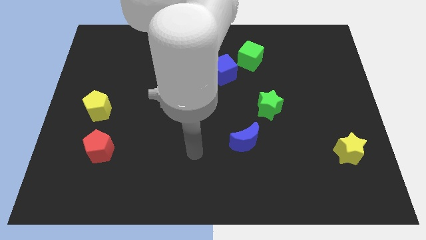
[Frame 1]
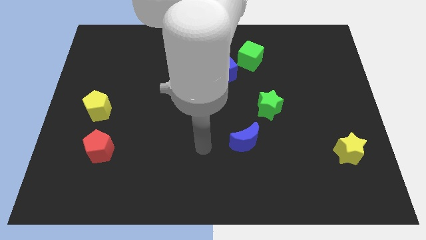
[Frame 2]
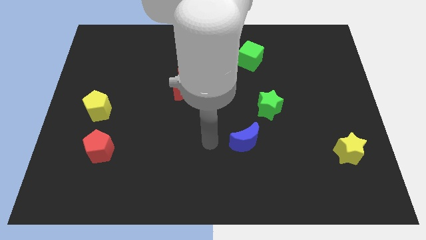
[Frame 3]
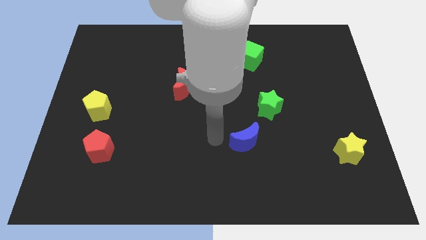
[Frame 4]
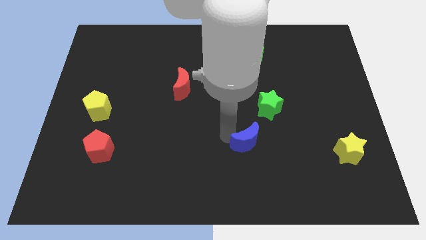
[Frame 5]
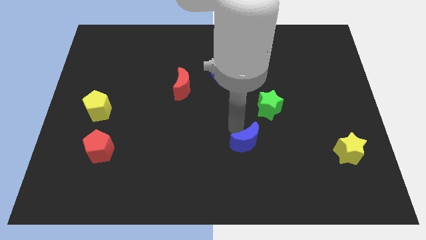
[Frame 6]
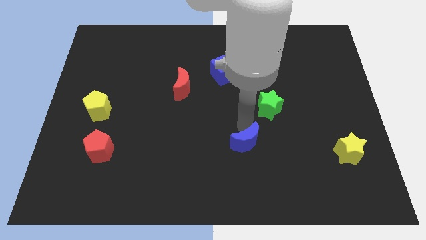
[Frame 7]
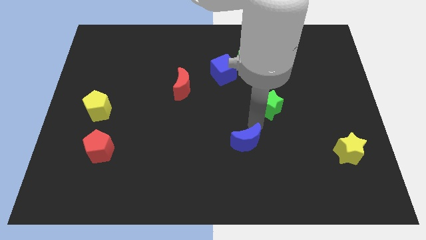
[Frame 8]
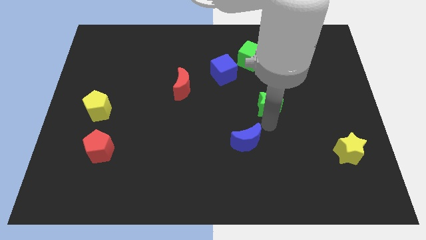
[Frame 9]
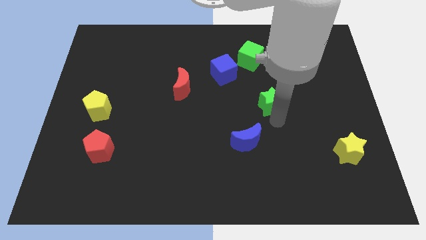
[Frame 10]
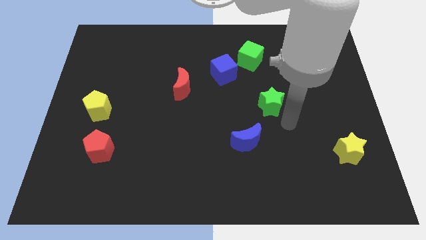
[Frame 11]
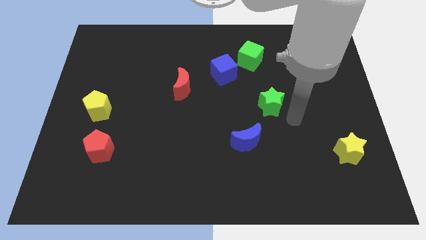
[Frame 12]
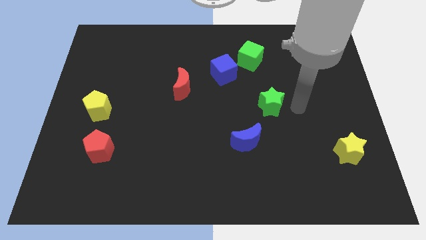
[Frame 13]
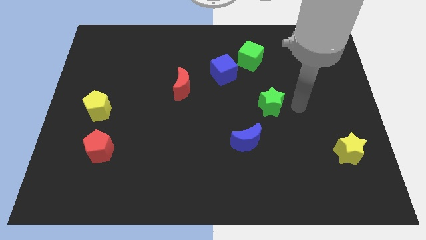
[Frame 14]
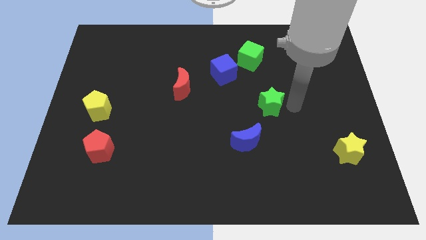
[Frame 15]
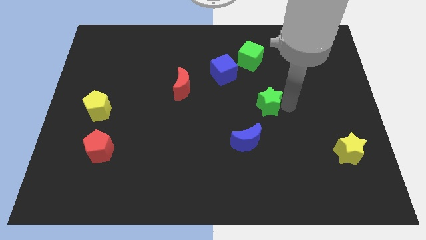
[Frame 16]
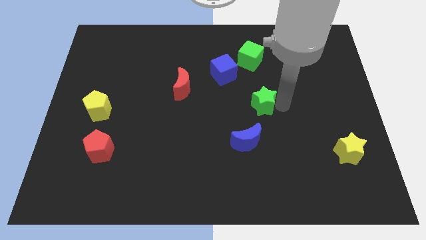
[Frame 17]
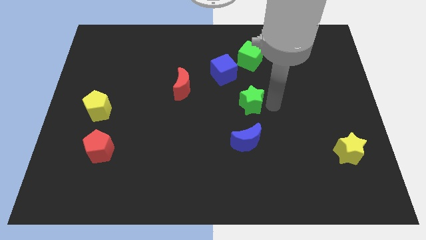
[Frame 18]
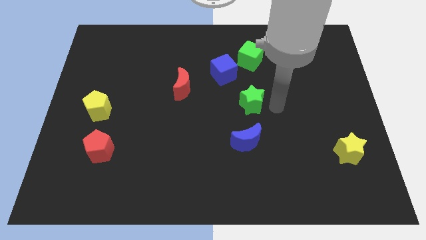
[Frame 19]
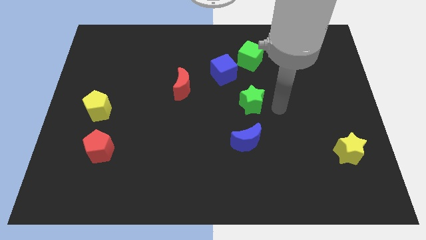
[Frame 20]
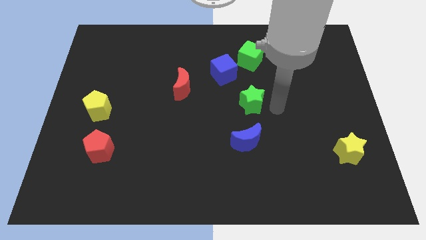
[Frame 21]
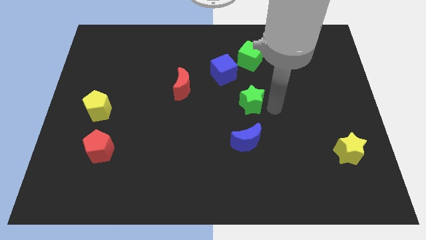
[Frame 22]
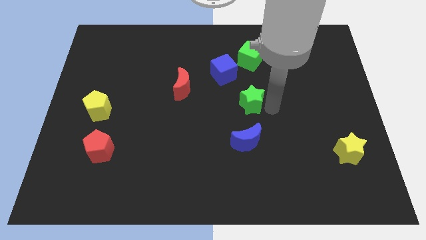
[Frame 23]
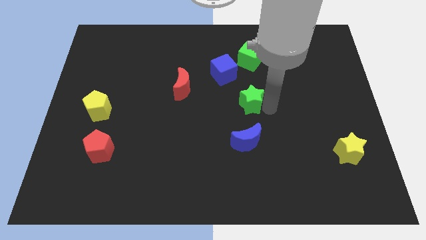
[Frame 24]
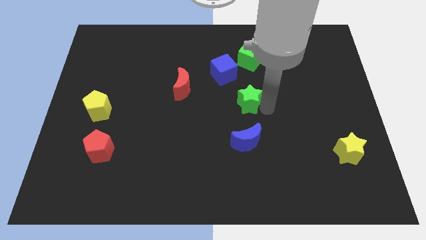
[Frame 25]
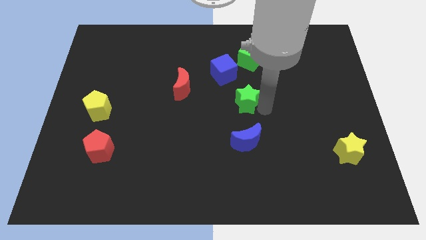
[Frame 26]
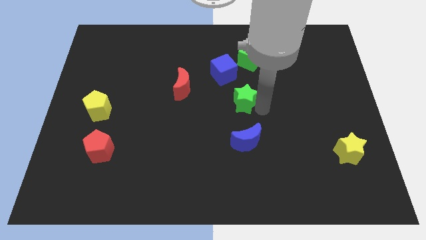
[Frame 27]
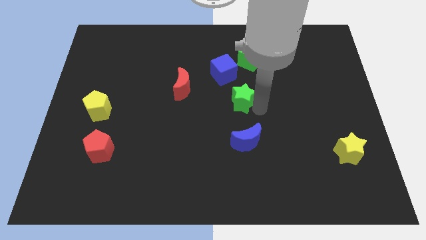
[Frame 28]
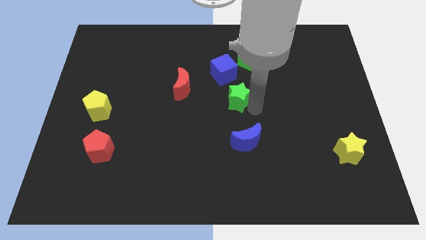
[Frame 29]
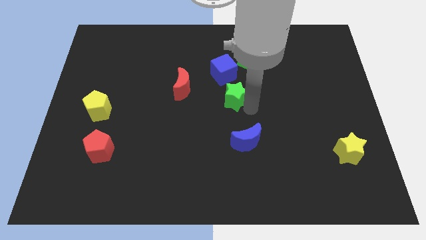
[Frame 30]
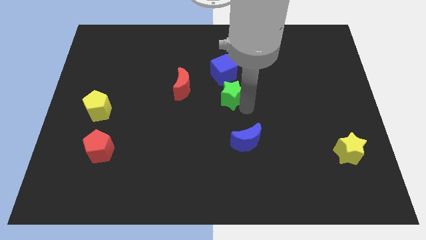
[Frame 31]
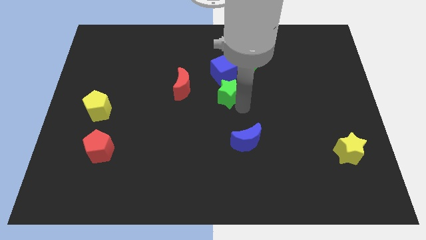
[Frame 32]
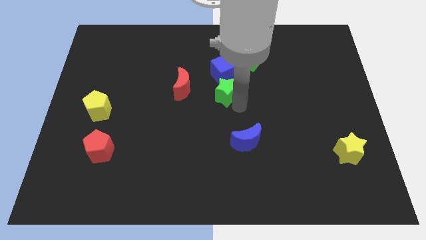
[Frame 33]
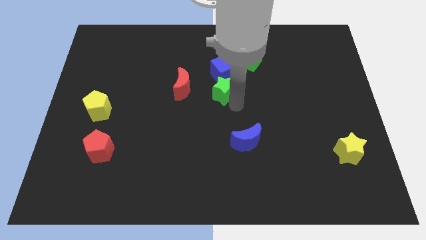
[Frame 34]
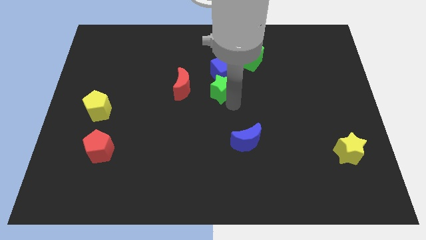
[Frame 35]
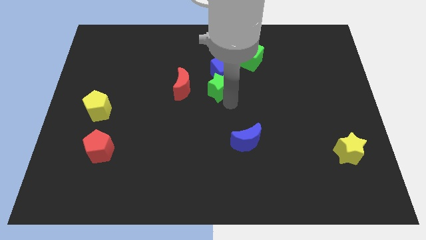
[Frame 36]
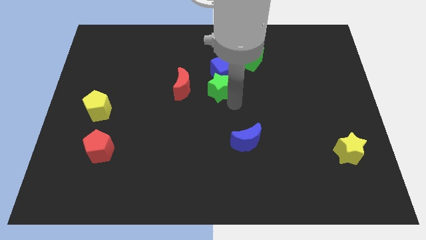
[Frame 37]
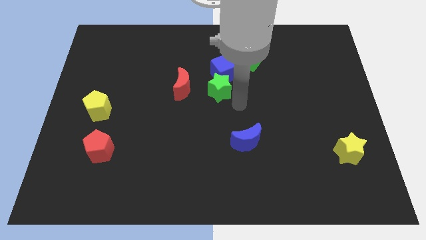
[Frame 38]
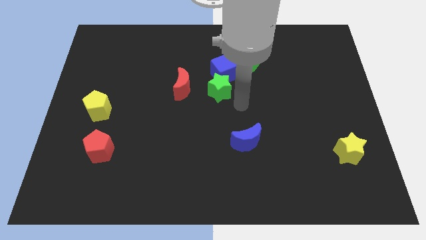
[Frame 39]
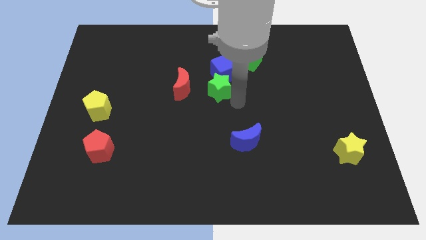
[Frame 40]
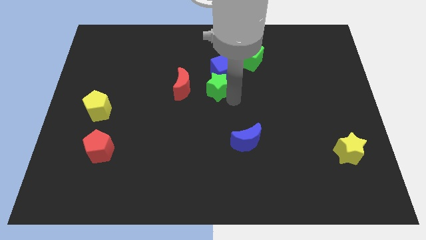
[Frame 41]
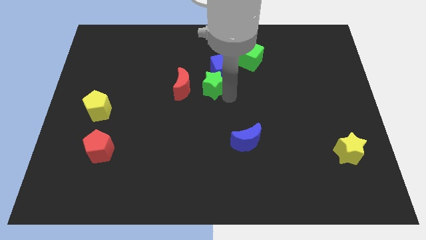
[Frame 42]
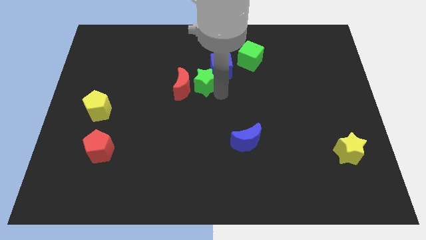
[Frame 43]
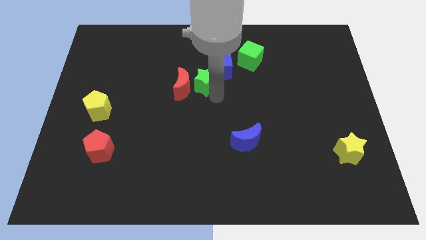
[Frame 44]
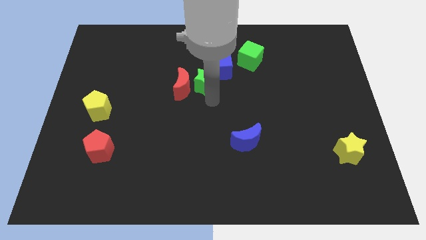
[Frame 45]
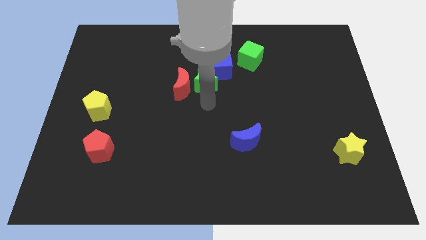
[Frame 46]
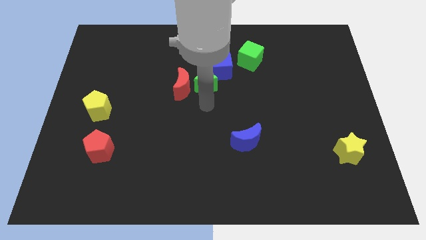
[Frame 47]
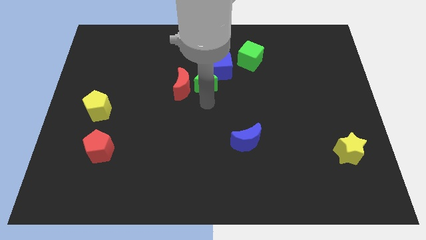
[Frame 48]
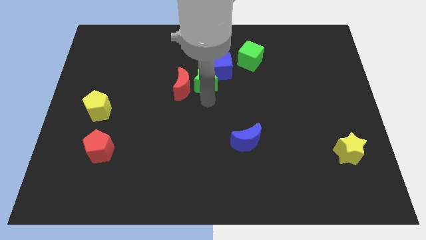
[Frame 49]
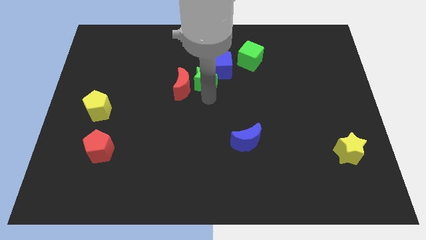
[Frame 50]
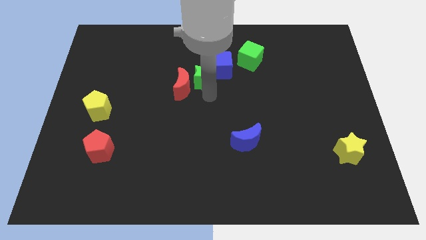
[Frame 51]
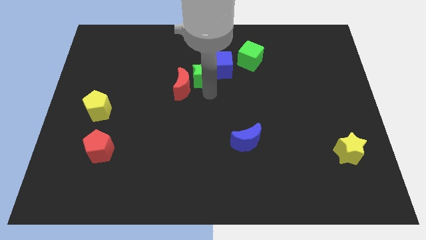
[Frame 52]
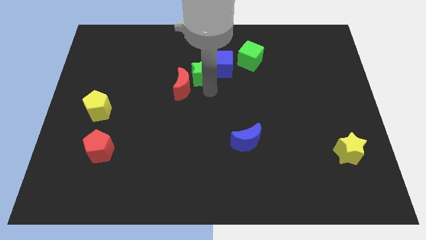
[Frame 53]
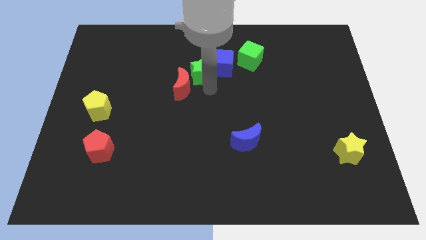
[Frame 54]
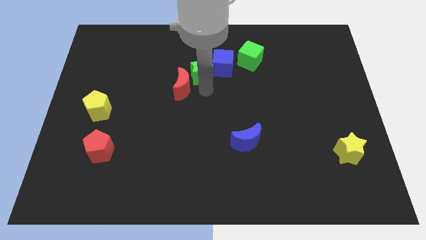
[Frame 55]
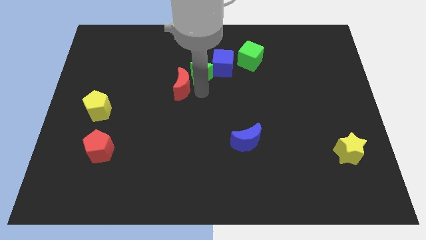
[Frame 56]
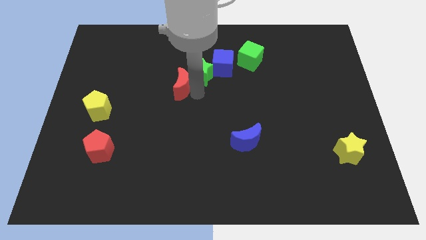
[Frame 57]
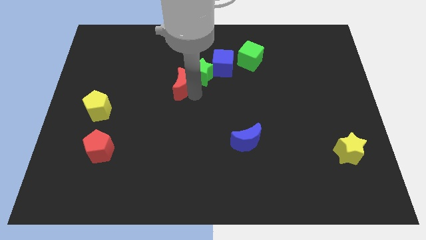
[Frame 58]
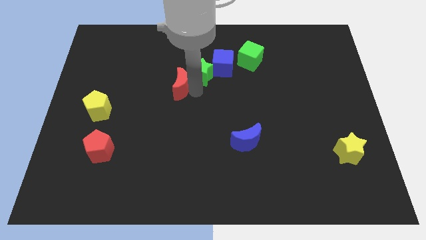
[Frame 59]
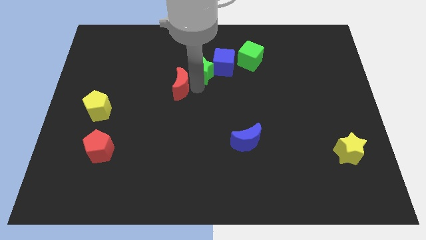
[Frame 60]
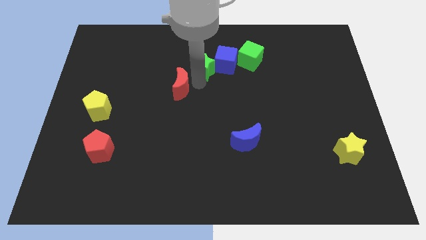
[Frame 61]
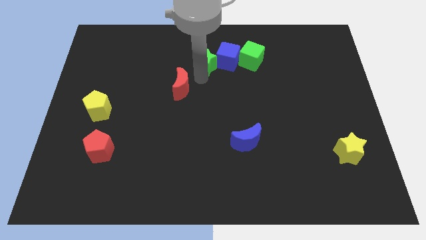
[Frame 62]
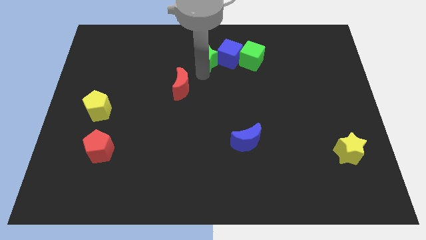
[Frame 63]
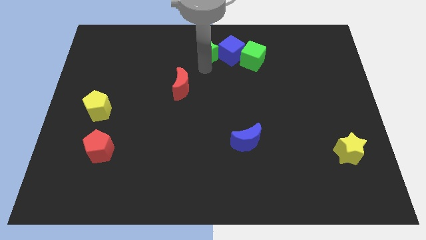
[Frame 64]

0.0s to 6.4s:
put the green star to the top side

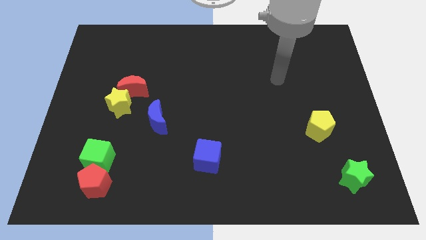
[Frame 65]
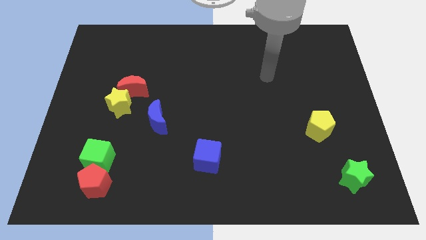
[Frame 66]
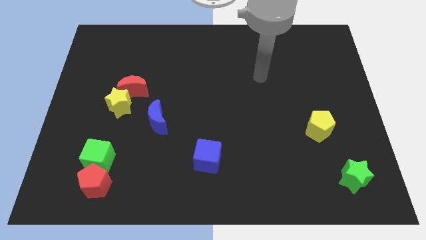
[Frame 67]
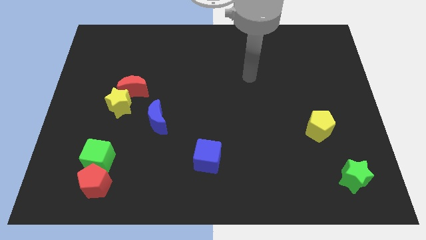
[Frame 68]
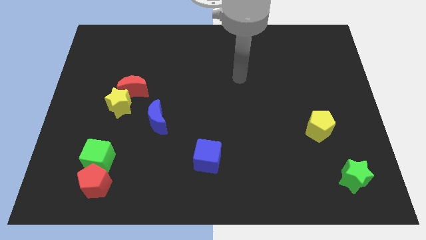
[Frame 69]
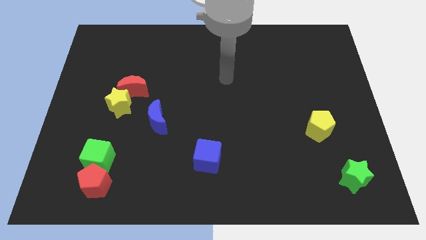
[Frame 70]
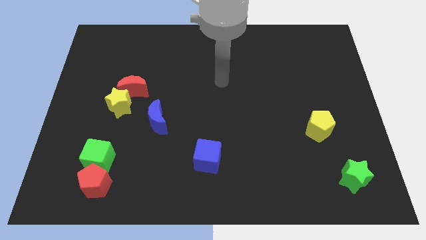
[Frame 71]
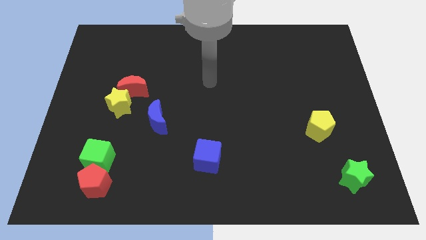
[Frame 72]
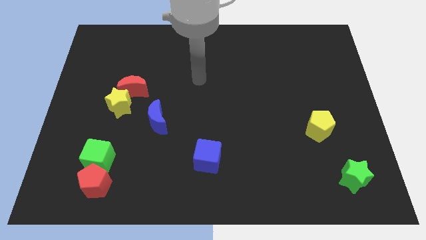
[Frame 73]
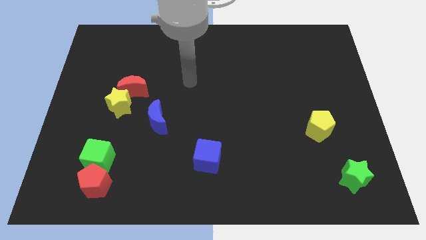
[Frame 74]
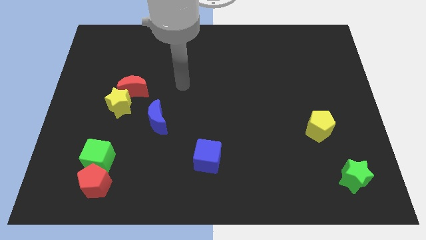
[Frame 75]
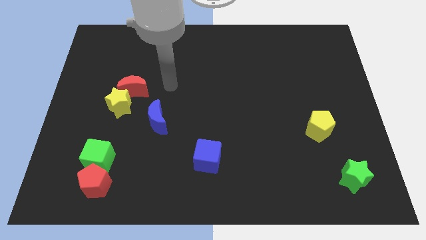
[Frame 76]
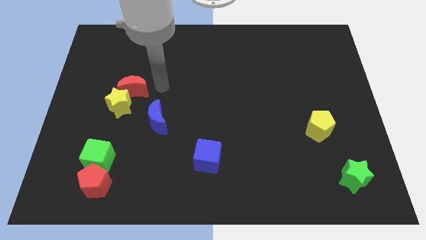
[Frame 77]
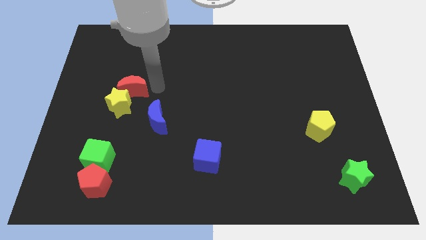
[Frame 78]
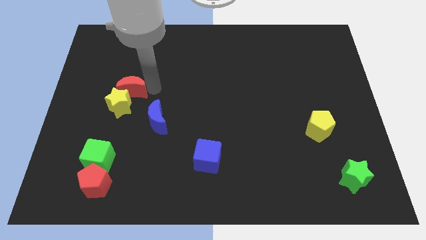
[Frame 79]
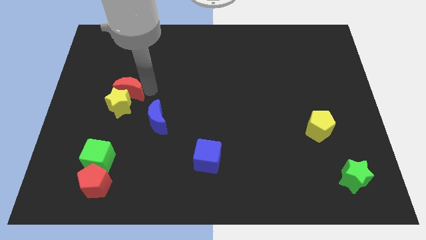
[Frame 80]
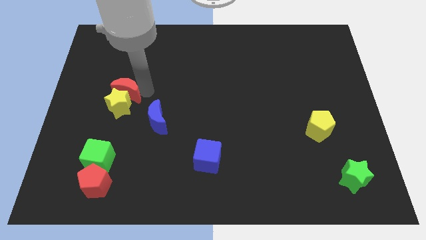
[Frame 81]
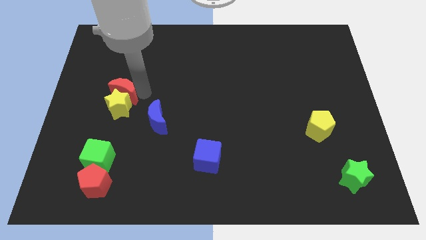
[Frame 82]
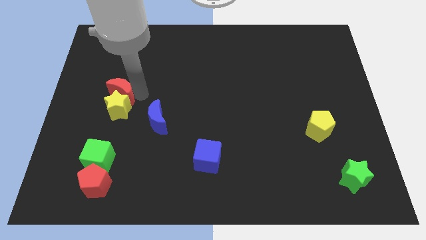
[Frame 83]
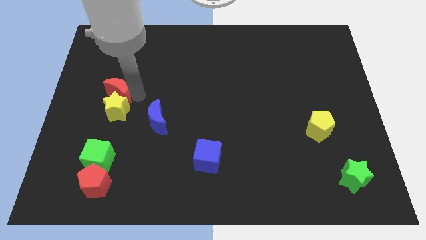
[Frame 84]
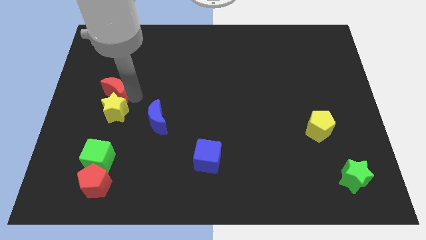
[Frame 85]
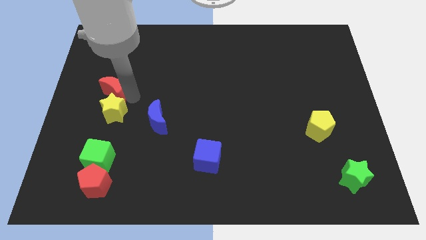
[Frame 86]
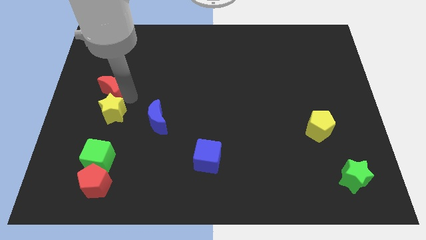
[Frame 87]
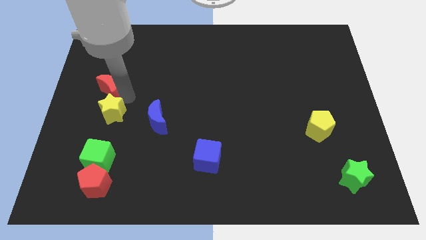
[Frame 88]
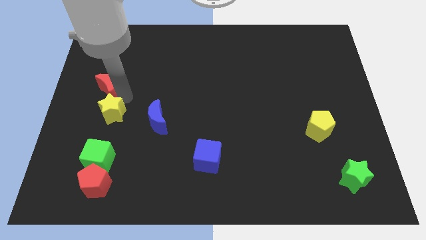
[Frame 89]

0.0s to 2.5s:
put the red moon to the left side of the board
